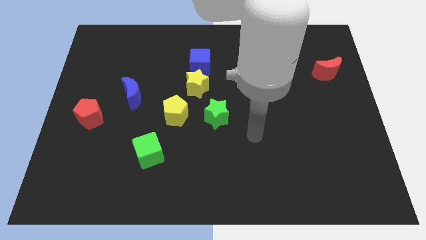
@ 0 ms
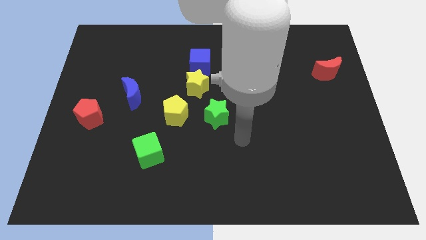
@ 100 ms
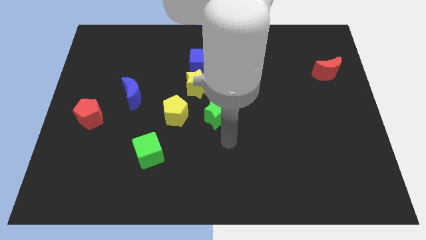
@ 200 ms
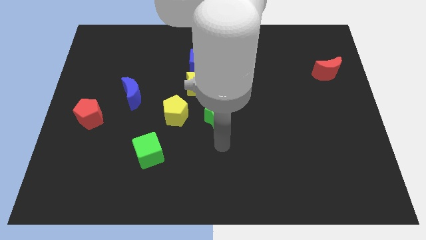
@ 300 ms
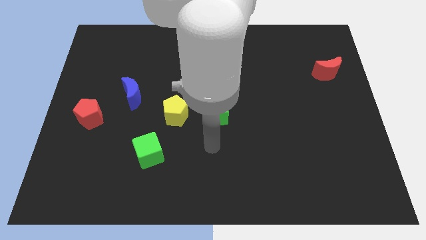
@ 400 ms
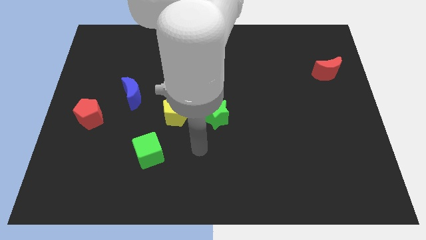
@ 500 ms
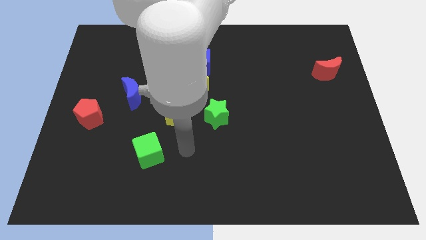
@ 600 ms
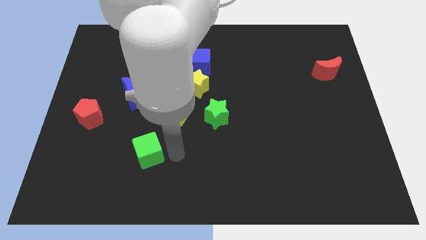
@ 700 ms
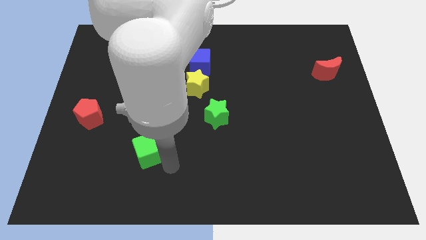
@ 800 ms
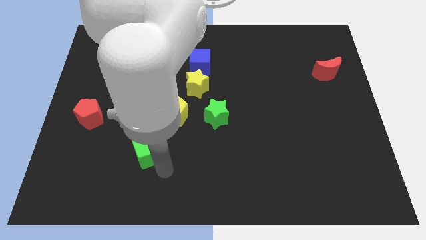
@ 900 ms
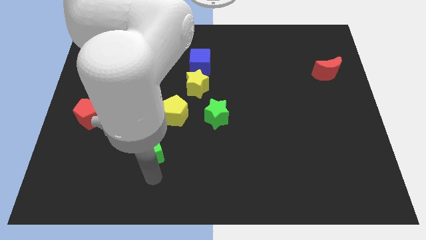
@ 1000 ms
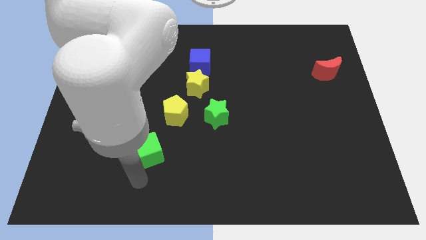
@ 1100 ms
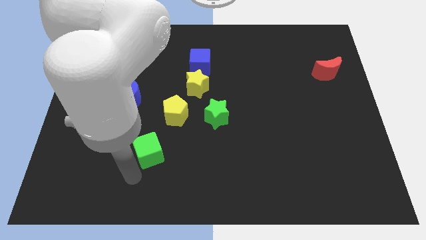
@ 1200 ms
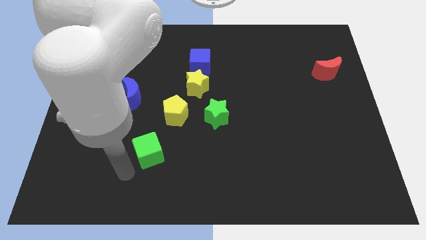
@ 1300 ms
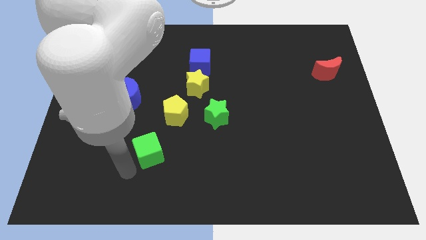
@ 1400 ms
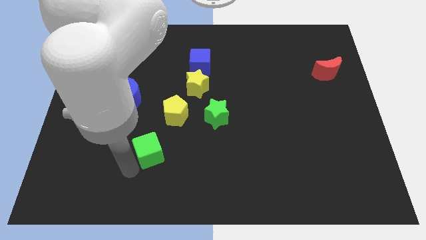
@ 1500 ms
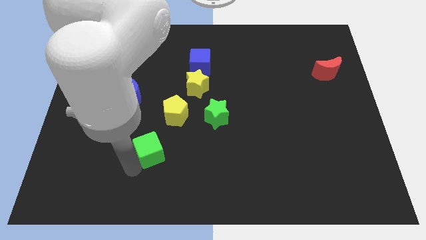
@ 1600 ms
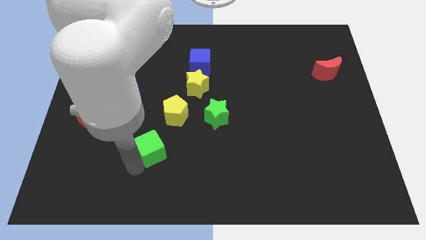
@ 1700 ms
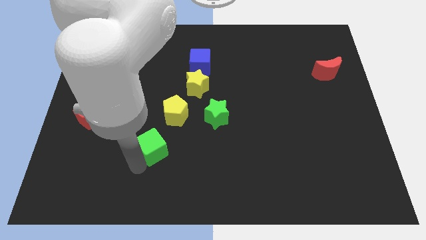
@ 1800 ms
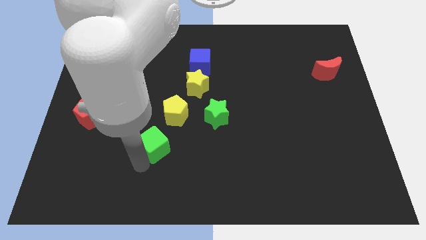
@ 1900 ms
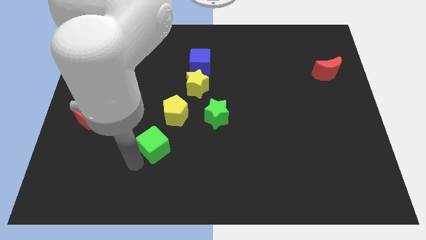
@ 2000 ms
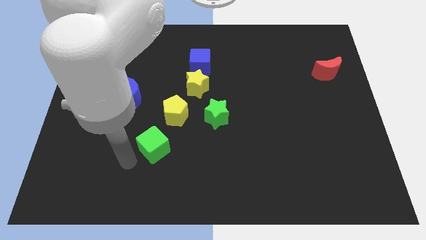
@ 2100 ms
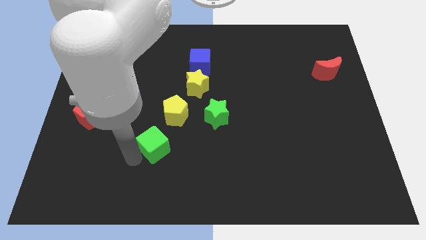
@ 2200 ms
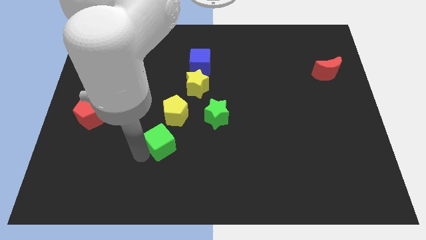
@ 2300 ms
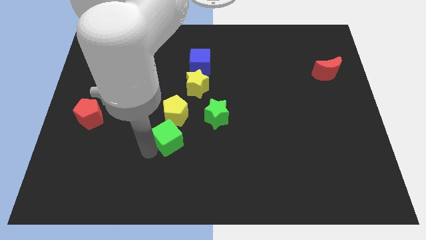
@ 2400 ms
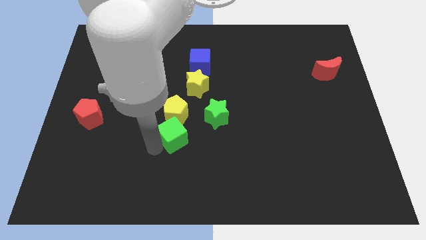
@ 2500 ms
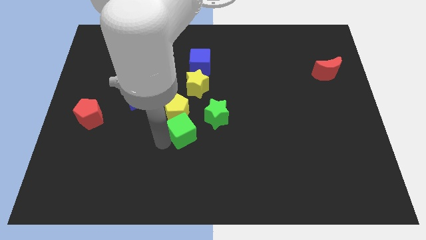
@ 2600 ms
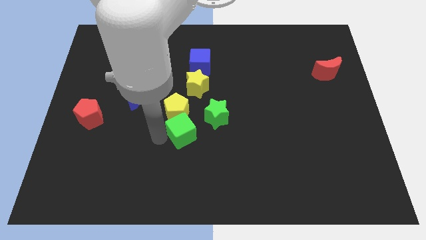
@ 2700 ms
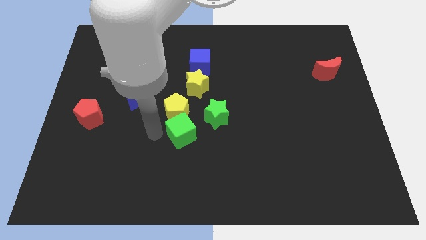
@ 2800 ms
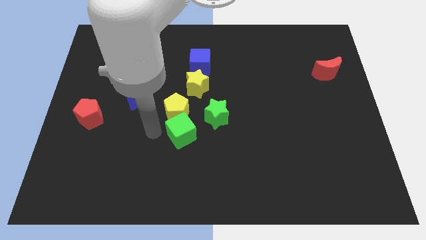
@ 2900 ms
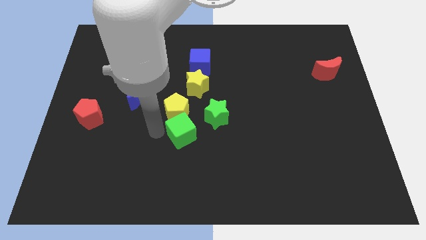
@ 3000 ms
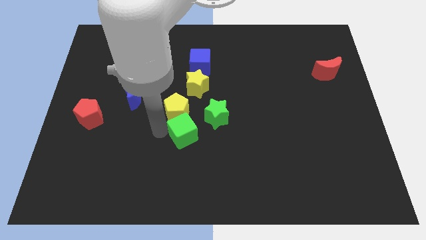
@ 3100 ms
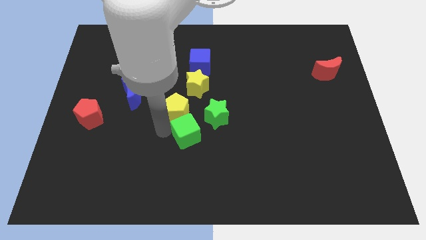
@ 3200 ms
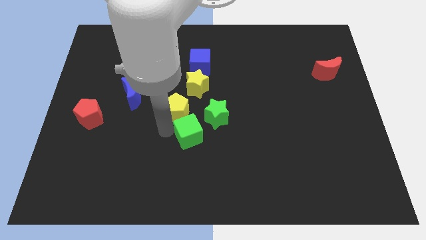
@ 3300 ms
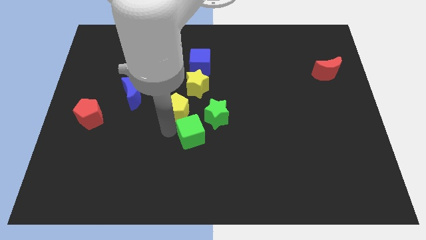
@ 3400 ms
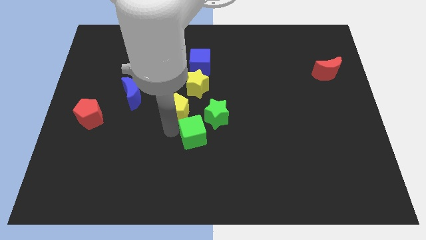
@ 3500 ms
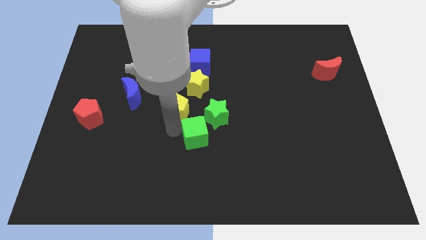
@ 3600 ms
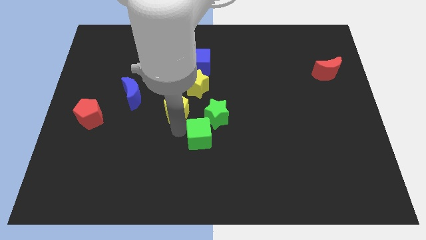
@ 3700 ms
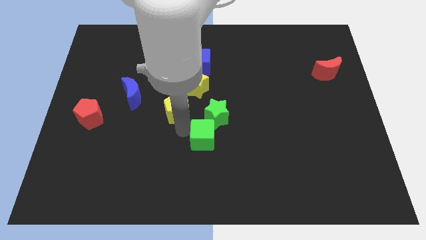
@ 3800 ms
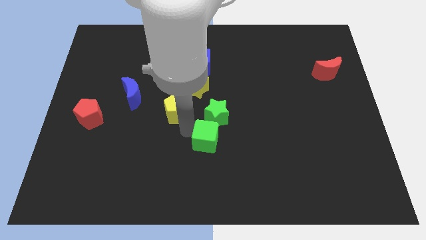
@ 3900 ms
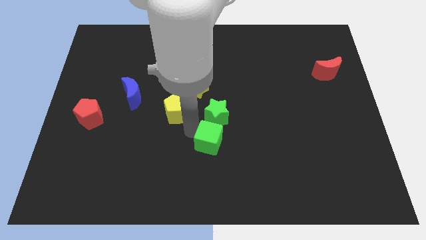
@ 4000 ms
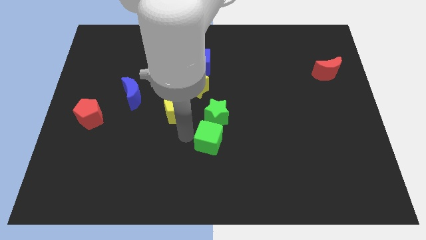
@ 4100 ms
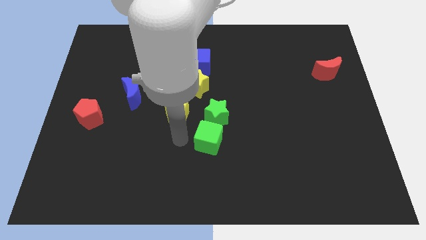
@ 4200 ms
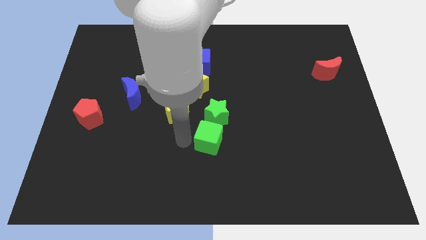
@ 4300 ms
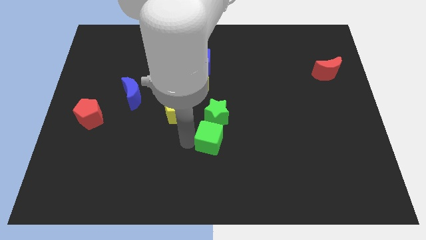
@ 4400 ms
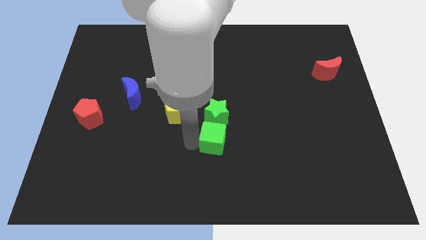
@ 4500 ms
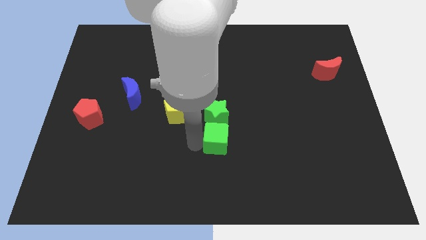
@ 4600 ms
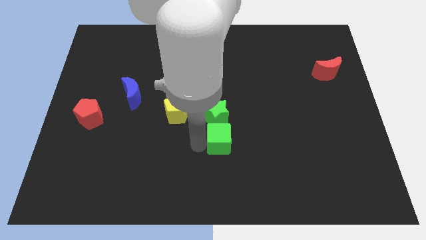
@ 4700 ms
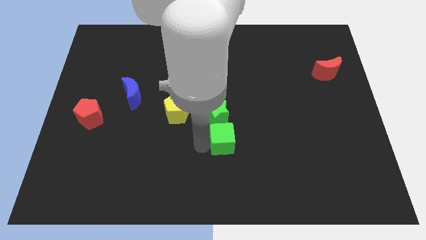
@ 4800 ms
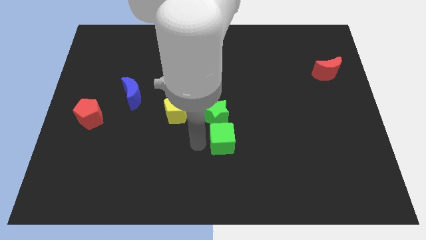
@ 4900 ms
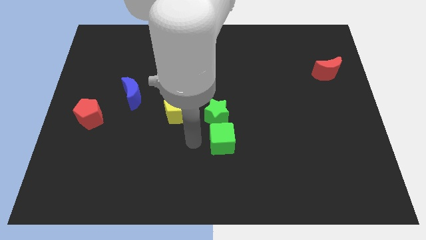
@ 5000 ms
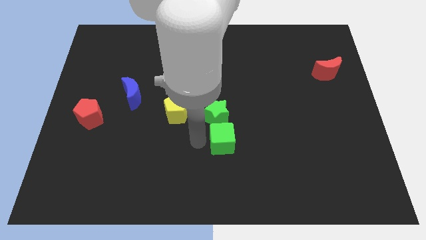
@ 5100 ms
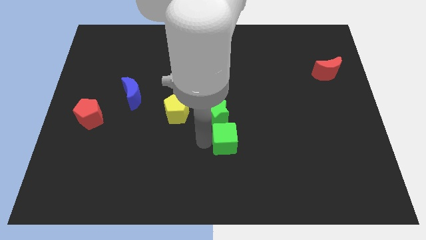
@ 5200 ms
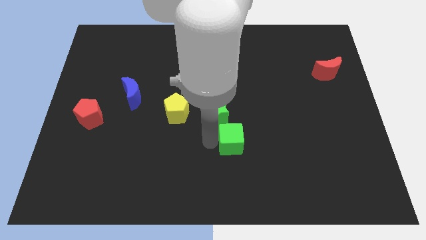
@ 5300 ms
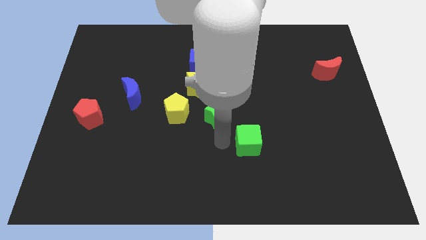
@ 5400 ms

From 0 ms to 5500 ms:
push the green cube right

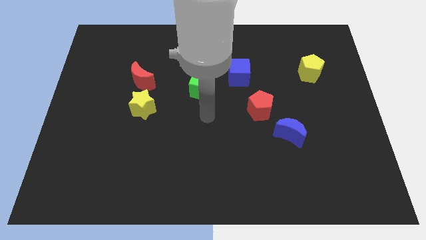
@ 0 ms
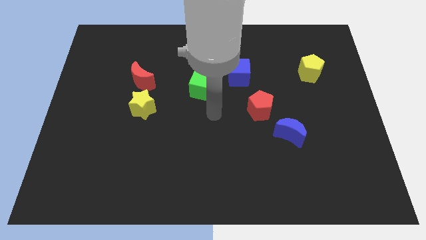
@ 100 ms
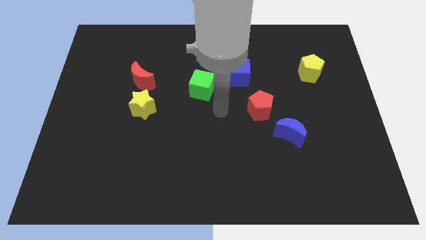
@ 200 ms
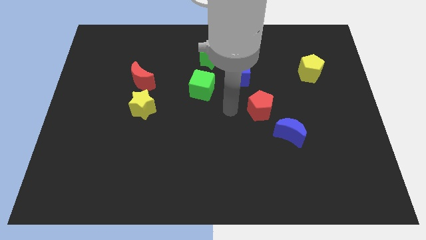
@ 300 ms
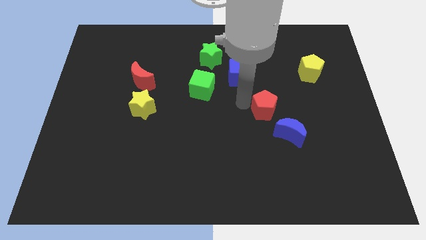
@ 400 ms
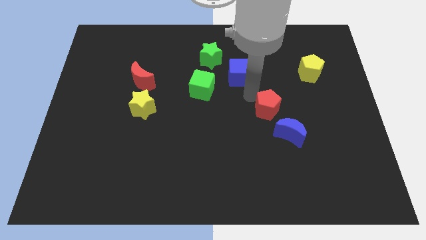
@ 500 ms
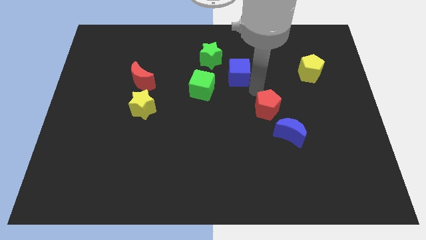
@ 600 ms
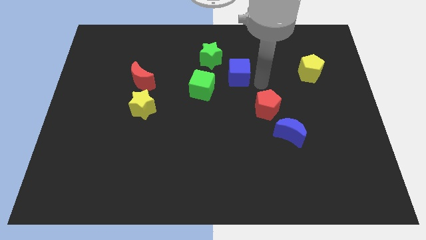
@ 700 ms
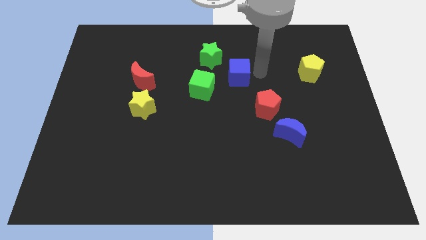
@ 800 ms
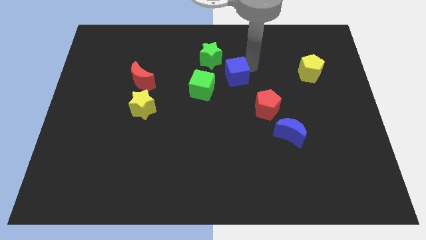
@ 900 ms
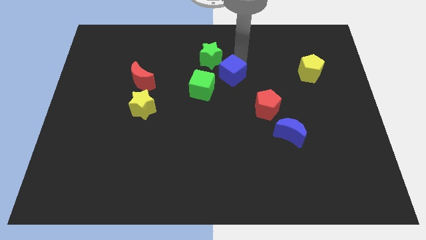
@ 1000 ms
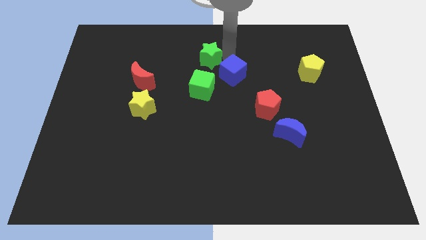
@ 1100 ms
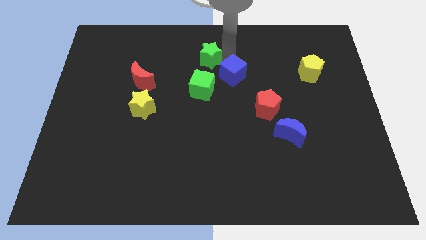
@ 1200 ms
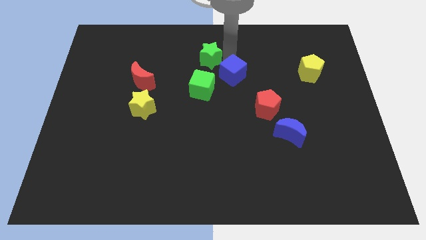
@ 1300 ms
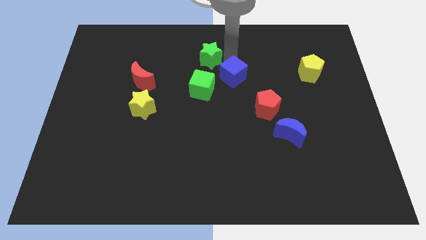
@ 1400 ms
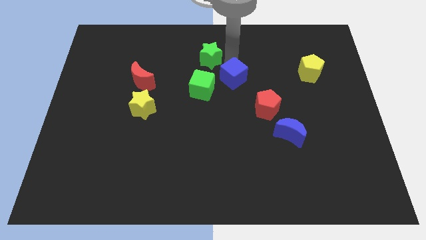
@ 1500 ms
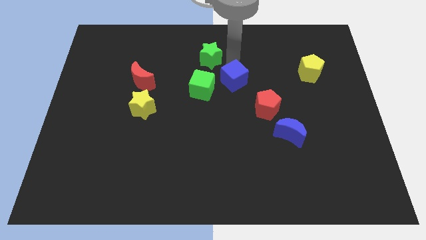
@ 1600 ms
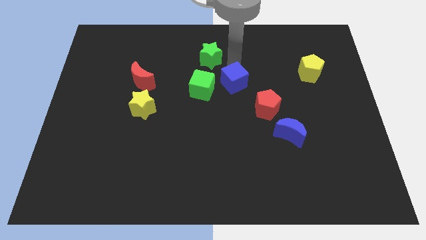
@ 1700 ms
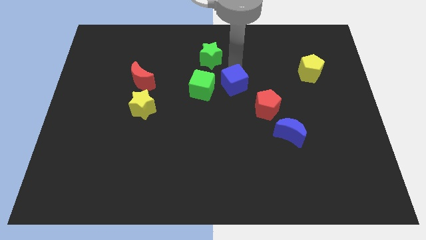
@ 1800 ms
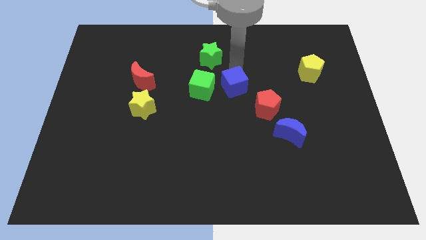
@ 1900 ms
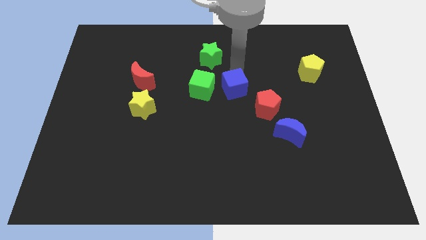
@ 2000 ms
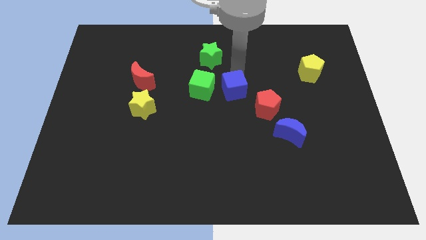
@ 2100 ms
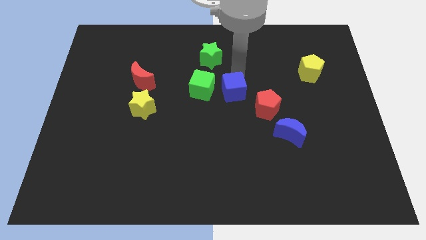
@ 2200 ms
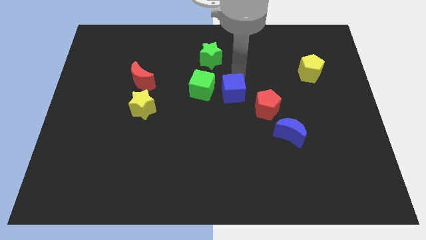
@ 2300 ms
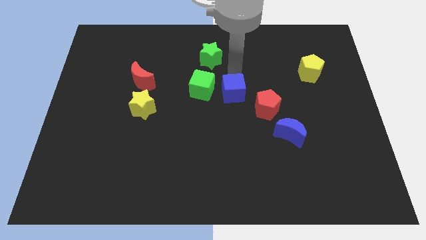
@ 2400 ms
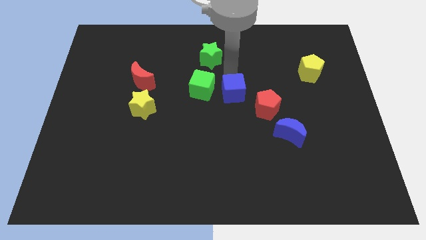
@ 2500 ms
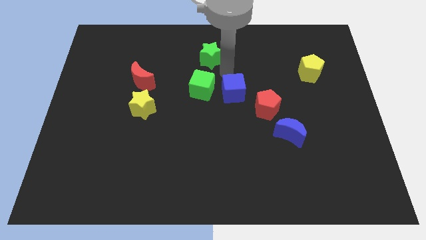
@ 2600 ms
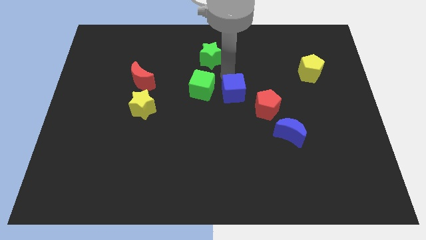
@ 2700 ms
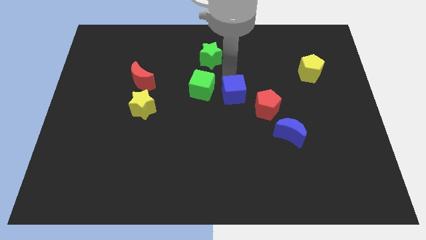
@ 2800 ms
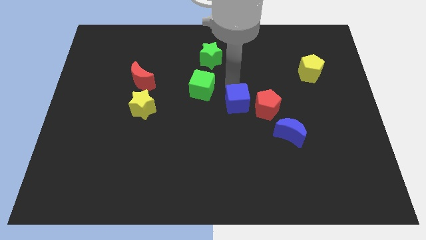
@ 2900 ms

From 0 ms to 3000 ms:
push the blue cube downwards a bit
